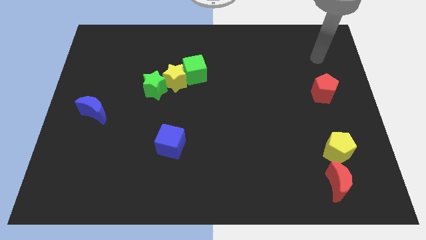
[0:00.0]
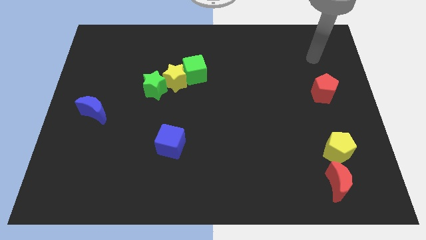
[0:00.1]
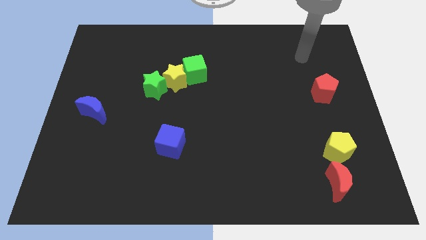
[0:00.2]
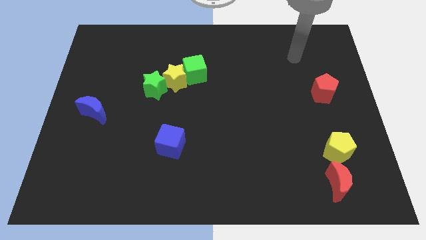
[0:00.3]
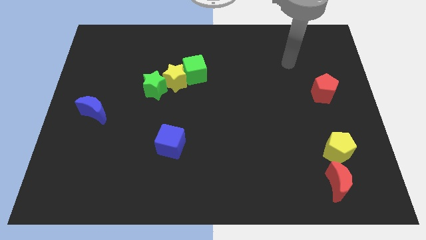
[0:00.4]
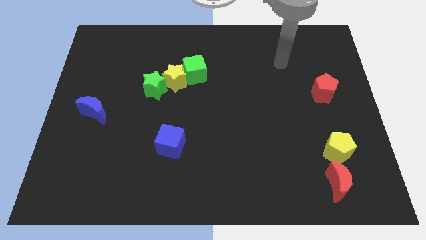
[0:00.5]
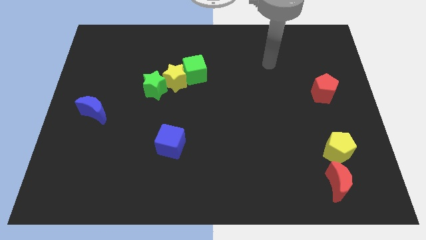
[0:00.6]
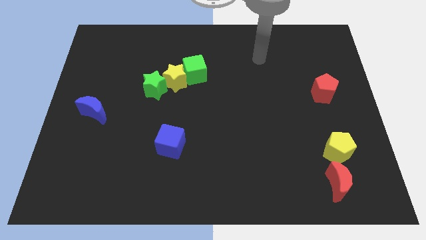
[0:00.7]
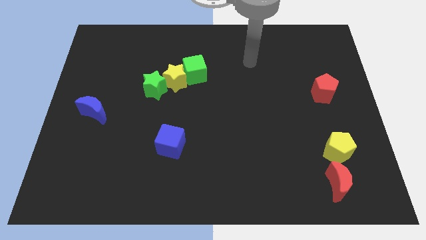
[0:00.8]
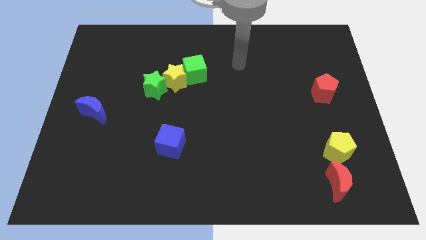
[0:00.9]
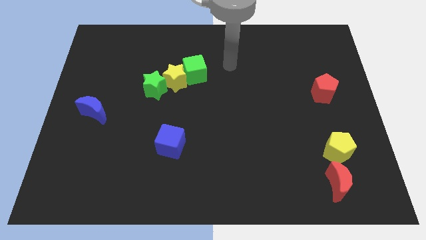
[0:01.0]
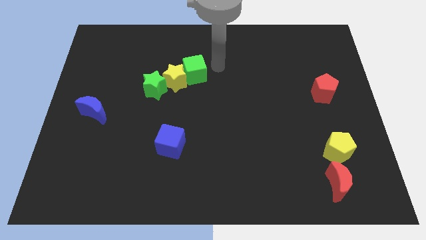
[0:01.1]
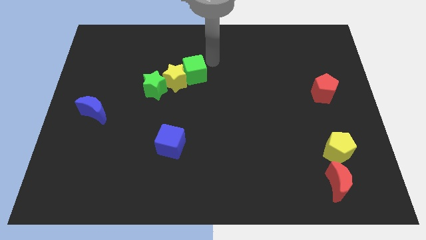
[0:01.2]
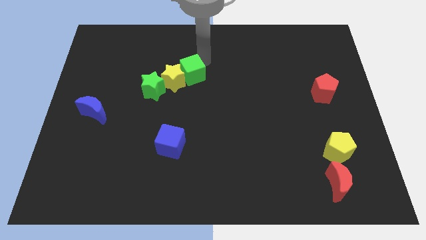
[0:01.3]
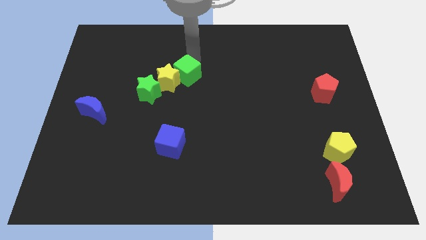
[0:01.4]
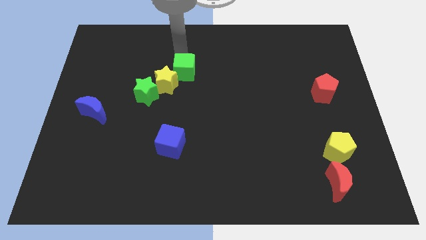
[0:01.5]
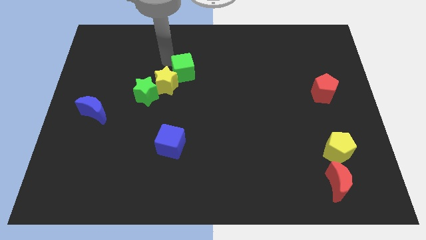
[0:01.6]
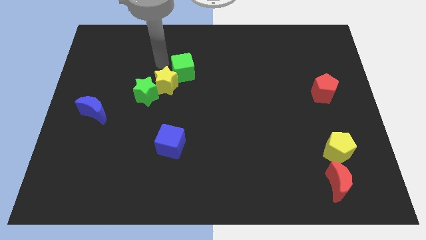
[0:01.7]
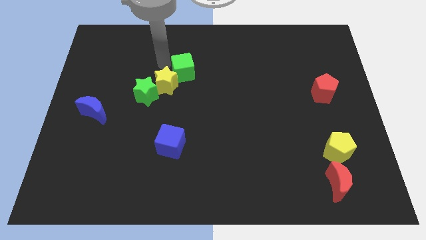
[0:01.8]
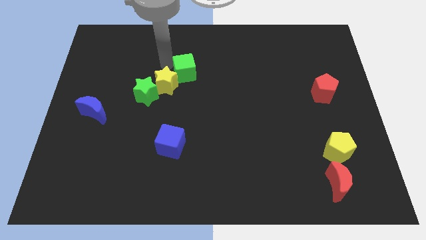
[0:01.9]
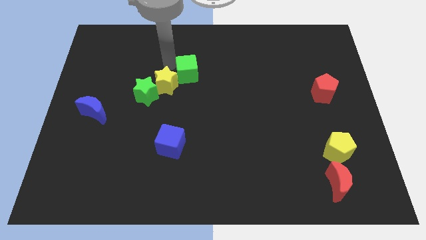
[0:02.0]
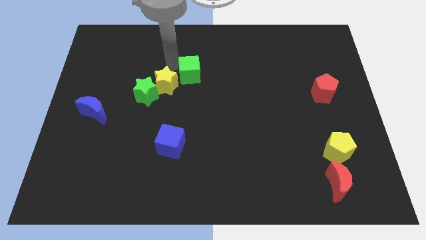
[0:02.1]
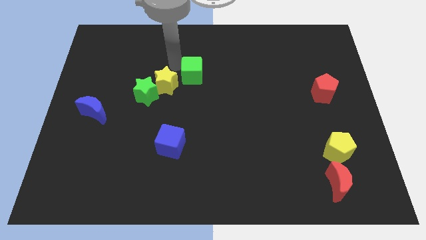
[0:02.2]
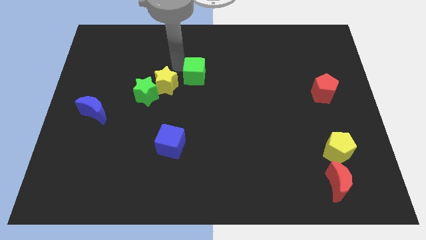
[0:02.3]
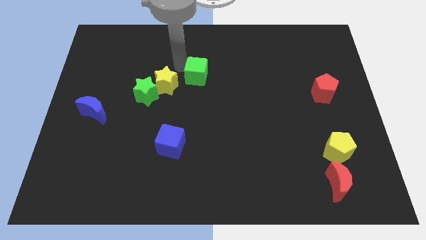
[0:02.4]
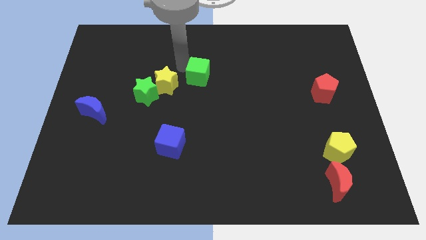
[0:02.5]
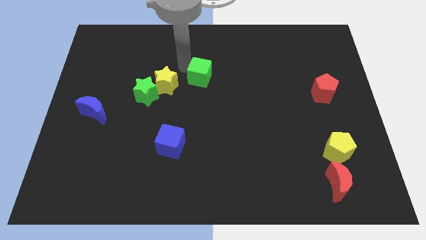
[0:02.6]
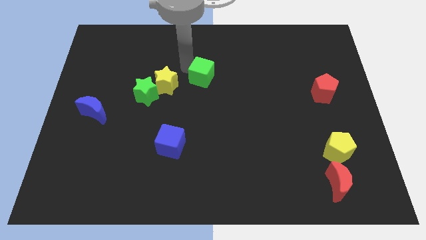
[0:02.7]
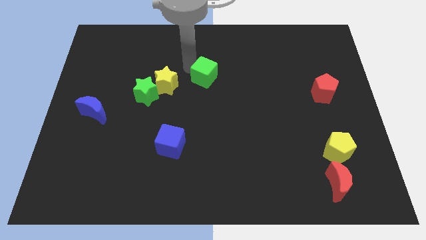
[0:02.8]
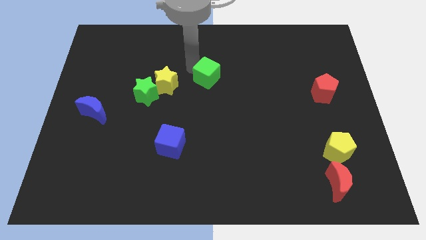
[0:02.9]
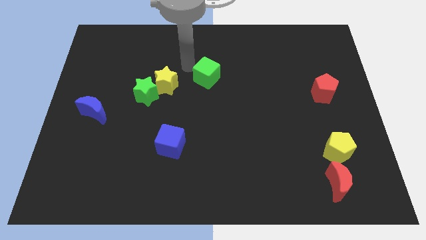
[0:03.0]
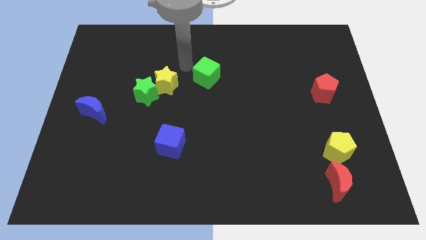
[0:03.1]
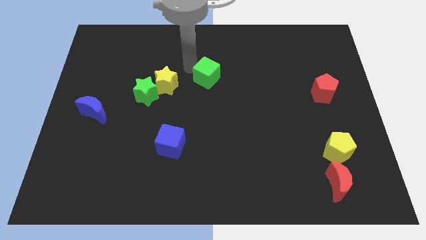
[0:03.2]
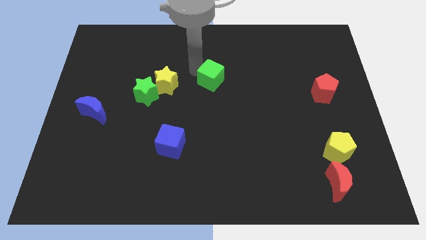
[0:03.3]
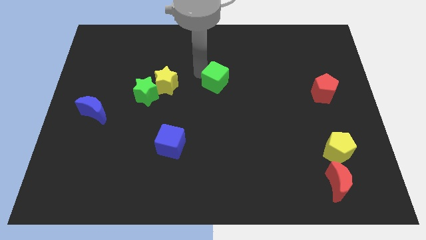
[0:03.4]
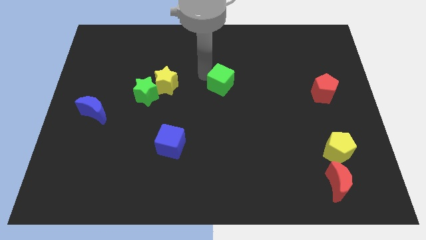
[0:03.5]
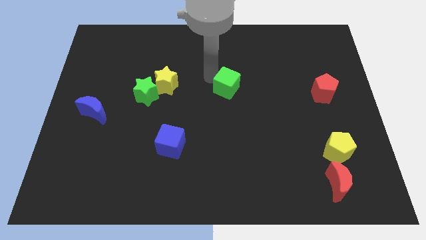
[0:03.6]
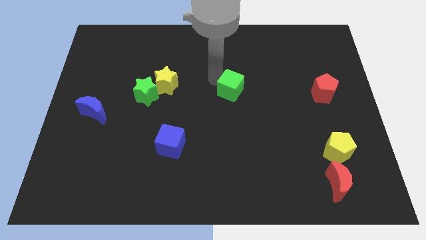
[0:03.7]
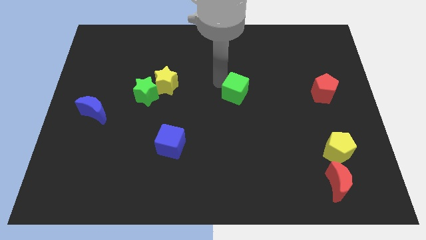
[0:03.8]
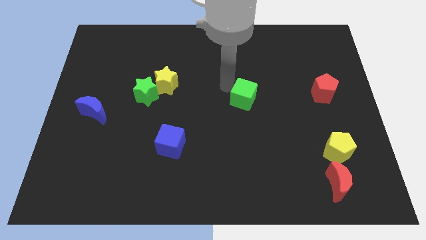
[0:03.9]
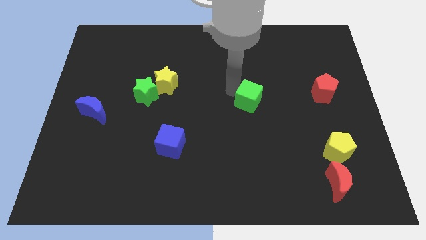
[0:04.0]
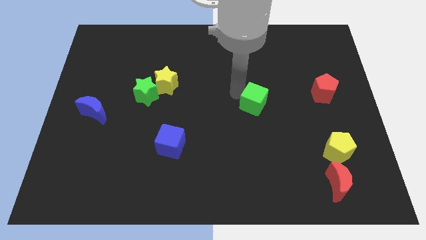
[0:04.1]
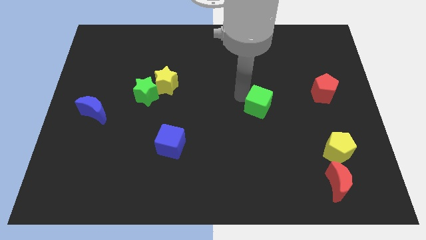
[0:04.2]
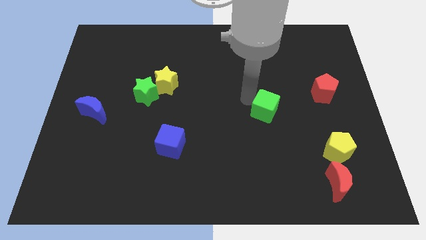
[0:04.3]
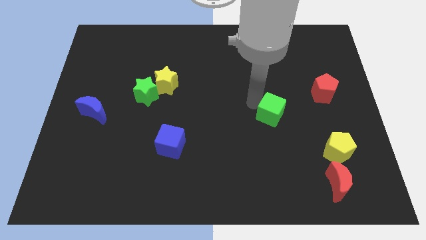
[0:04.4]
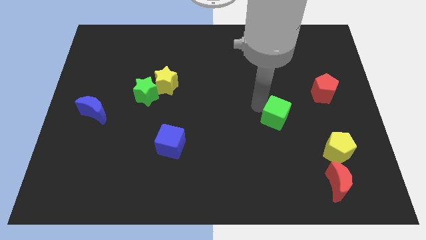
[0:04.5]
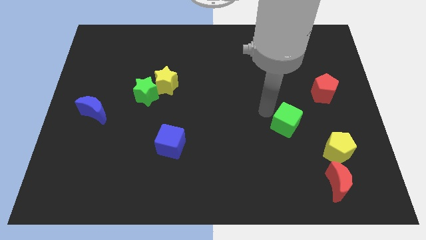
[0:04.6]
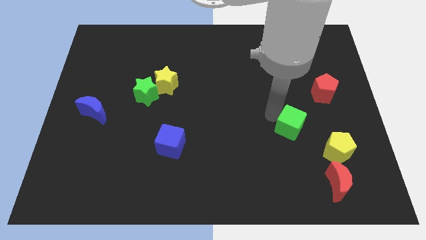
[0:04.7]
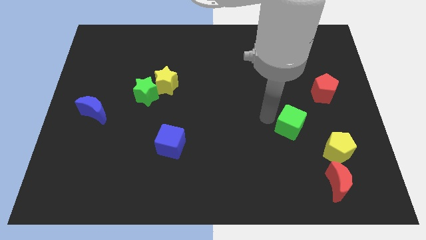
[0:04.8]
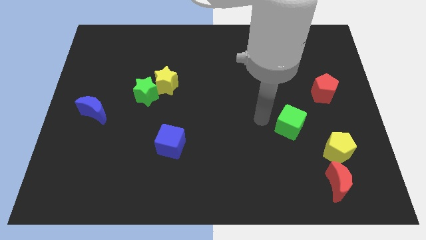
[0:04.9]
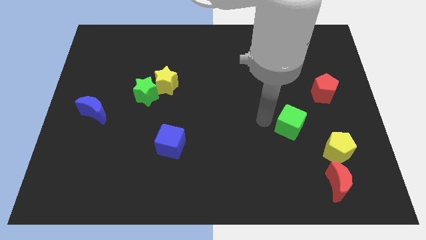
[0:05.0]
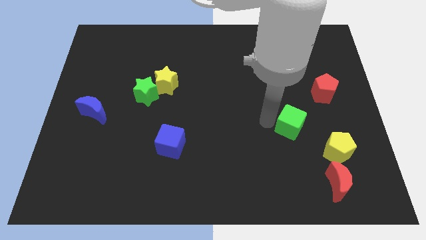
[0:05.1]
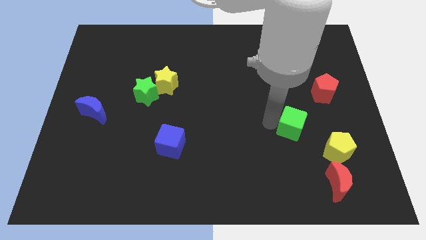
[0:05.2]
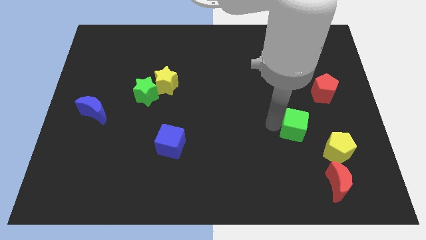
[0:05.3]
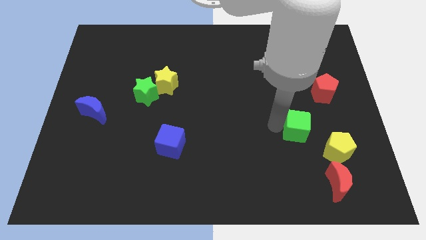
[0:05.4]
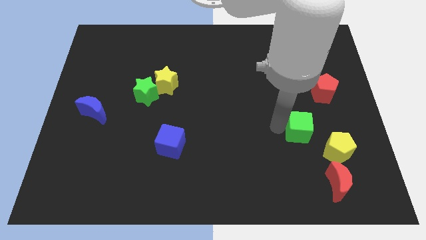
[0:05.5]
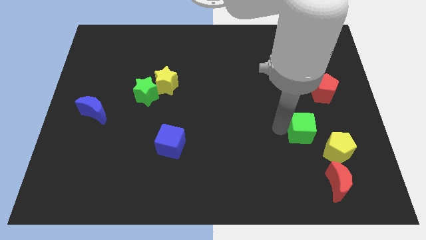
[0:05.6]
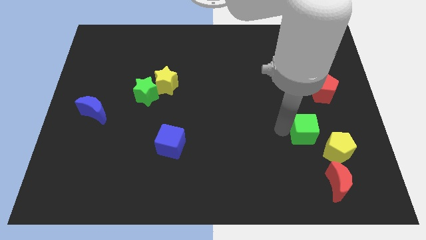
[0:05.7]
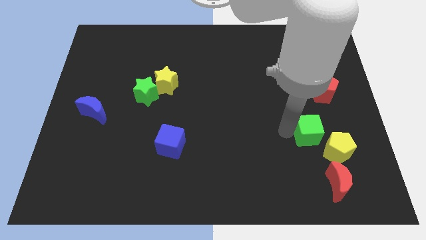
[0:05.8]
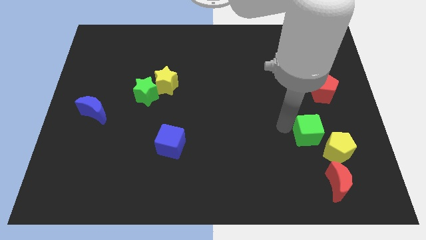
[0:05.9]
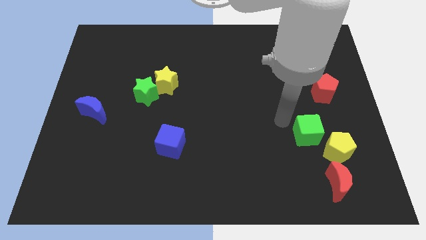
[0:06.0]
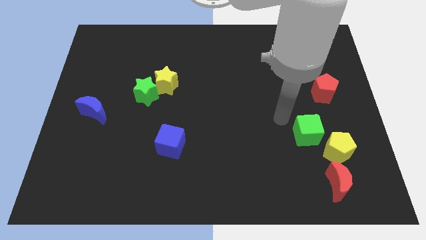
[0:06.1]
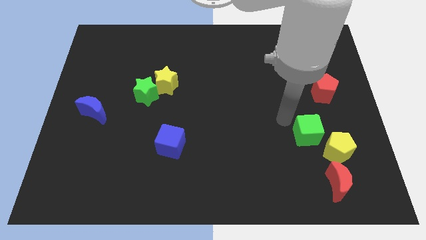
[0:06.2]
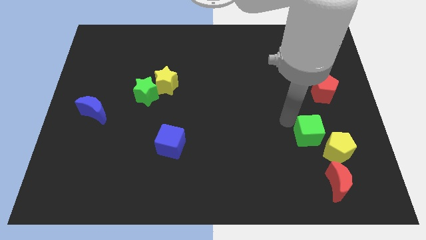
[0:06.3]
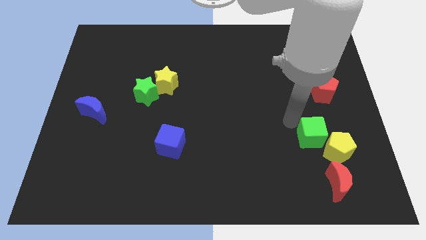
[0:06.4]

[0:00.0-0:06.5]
slide the green cube next to the yellow pentagon
